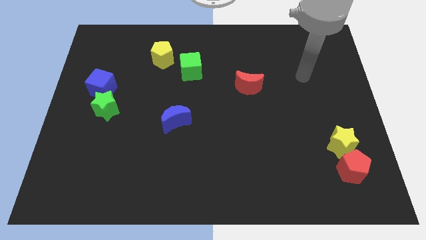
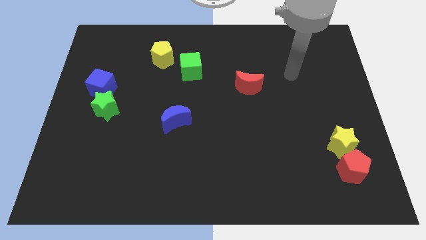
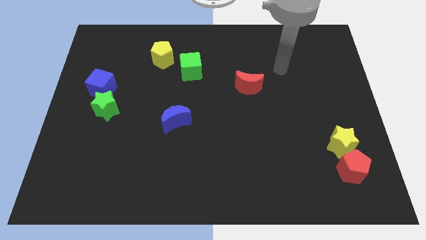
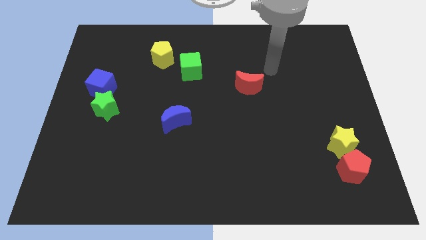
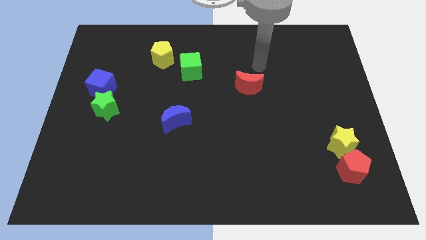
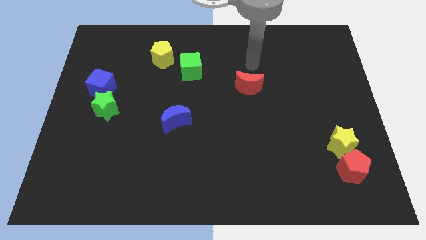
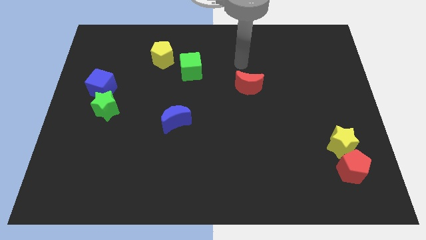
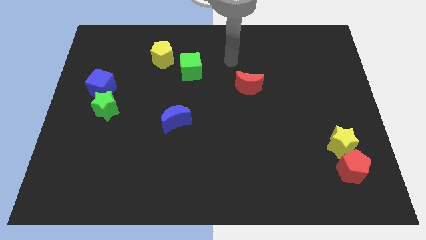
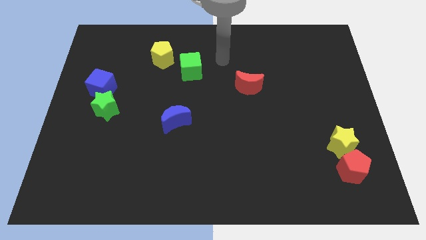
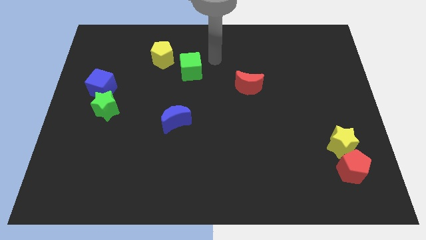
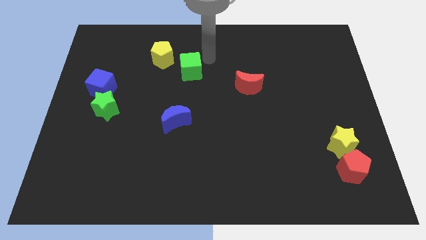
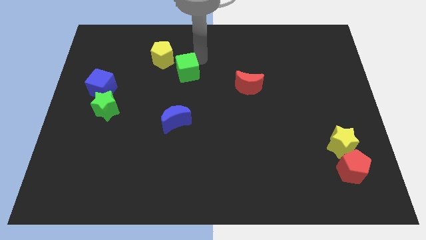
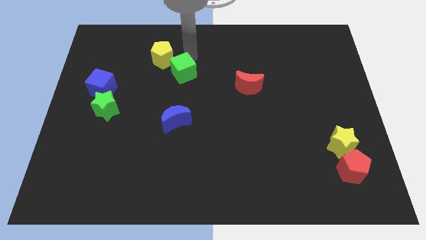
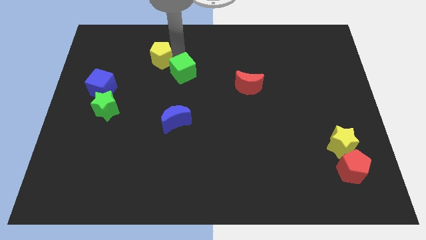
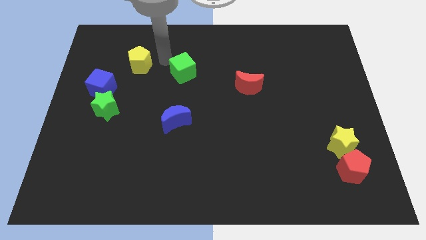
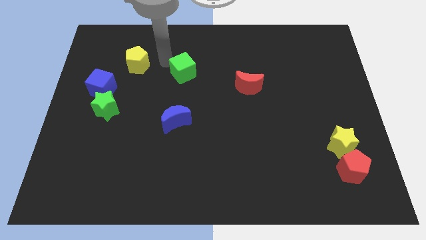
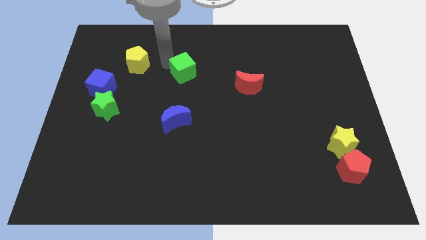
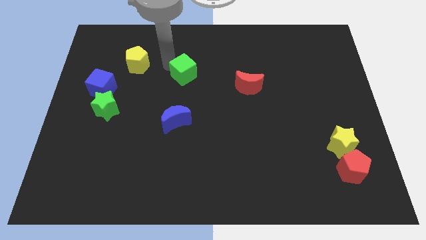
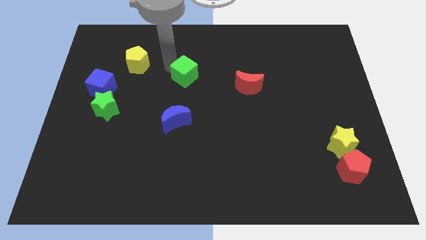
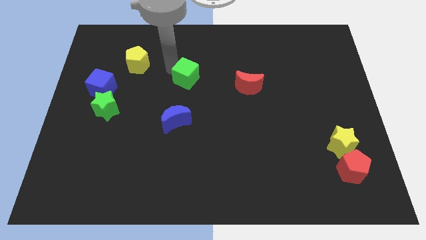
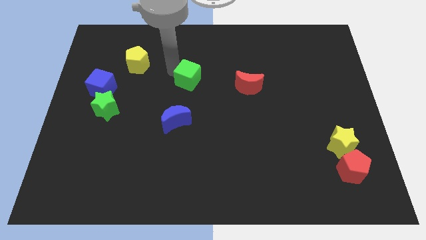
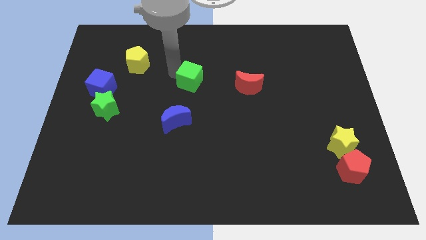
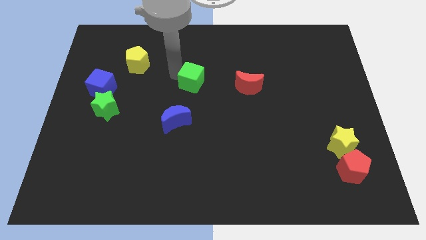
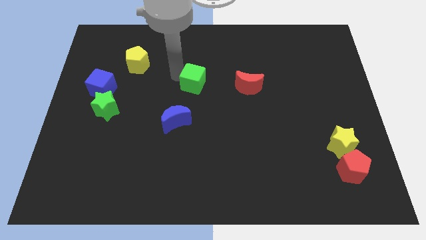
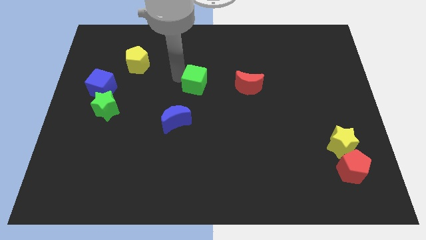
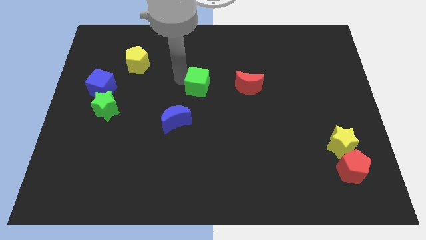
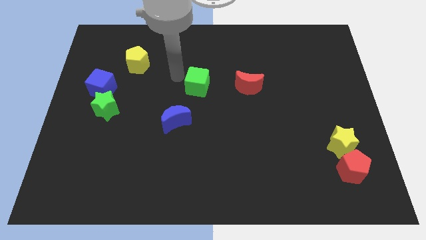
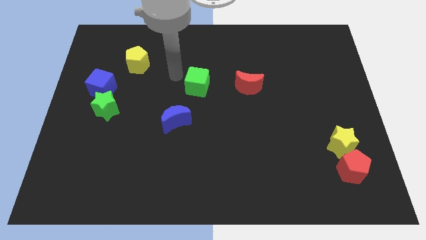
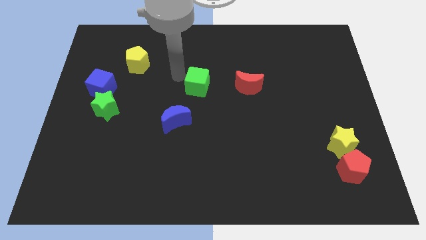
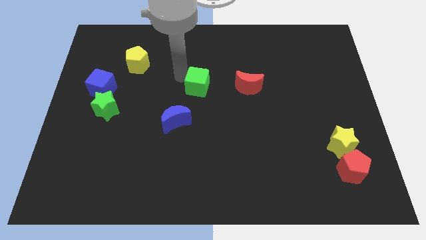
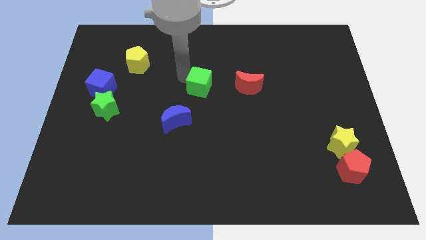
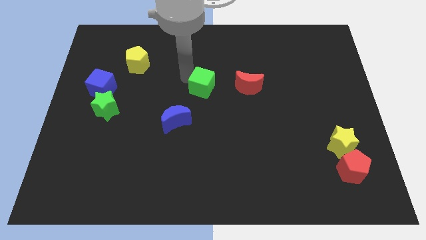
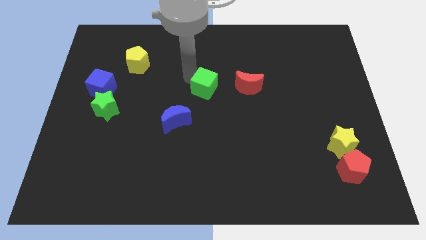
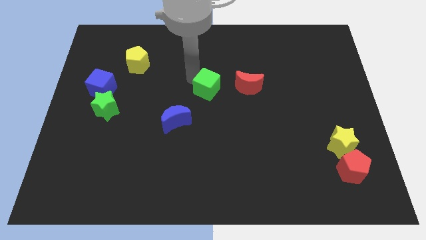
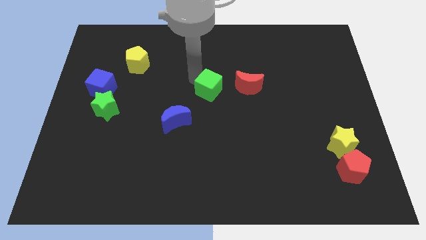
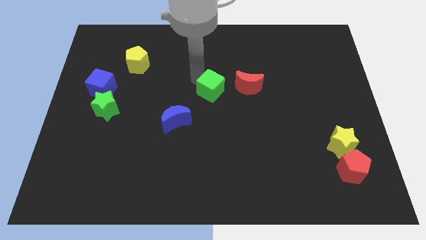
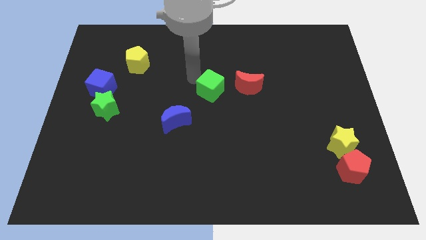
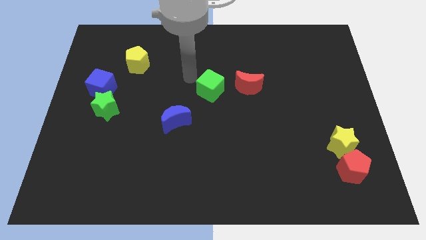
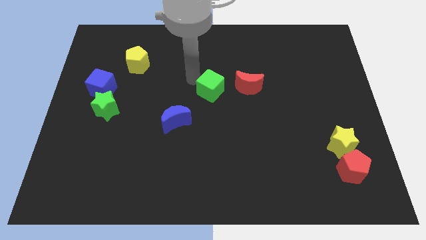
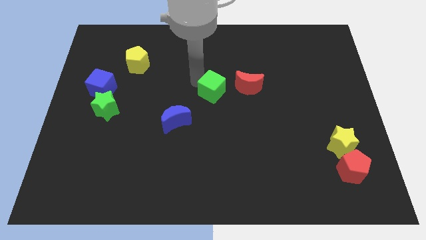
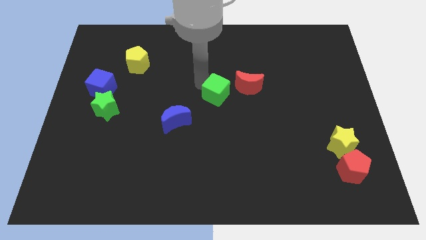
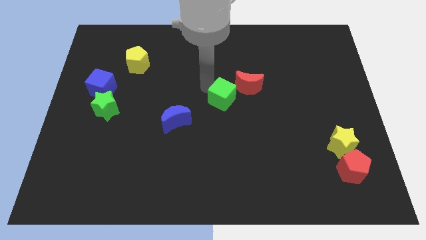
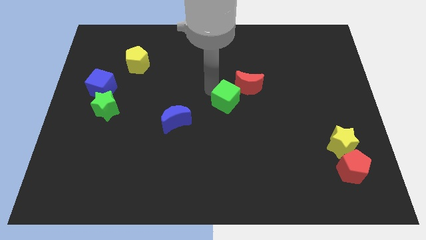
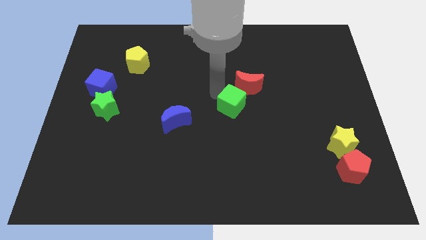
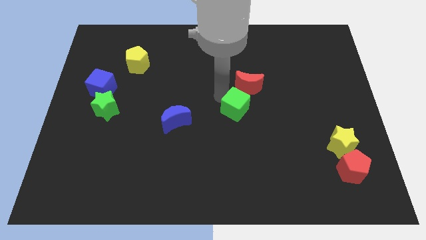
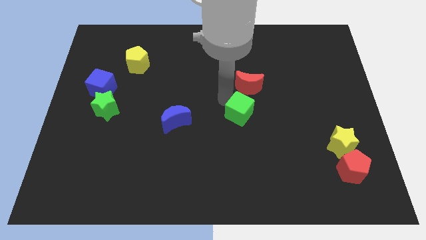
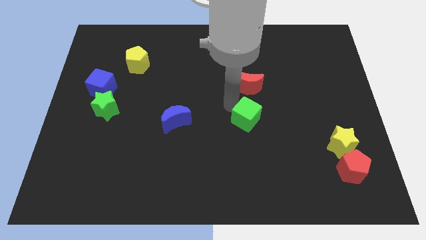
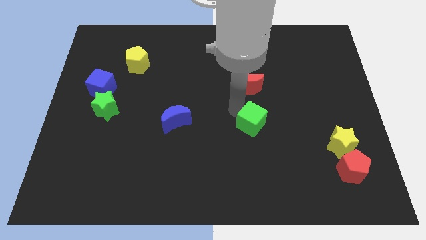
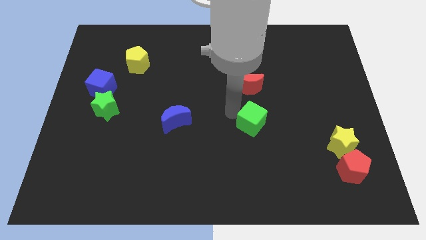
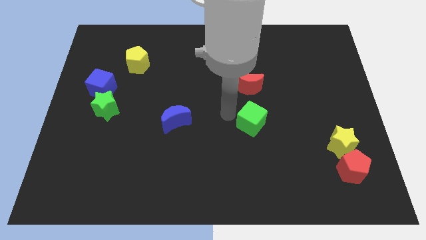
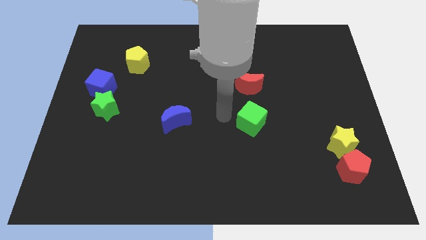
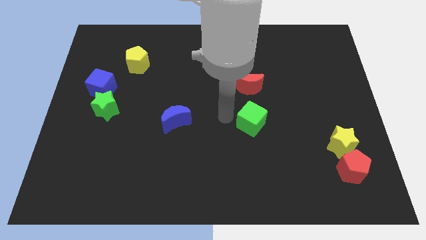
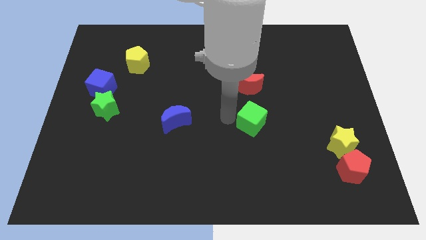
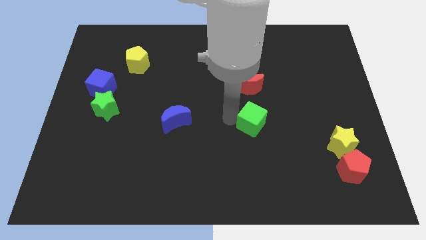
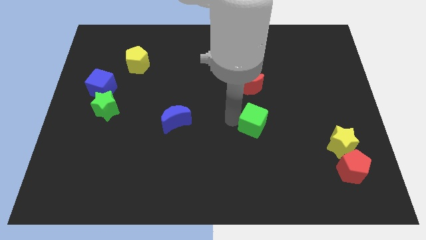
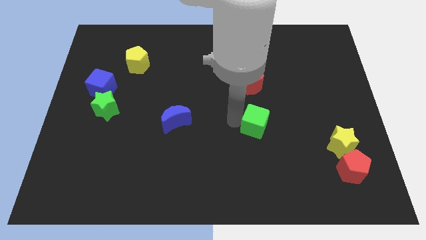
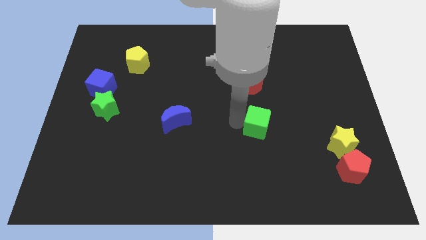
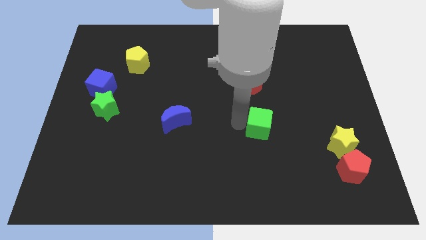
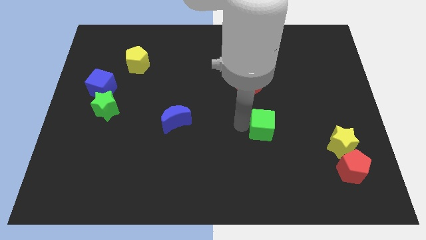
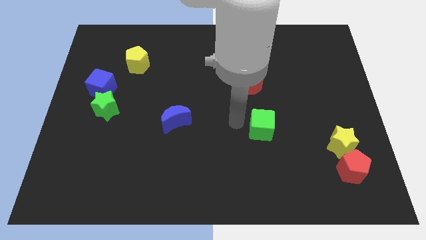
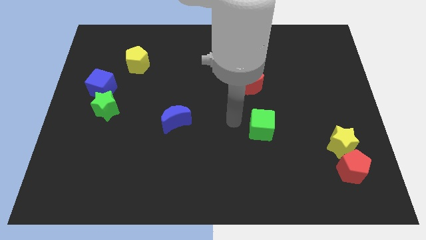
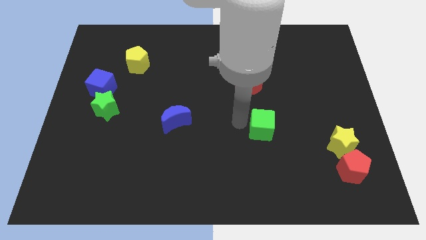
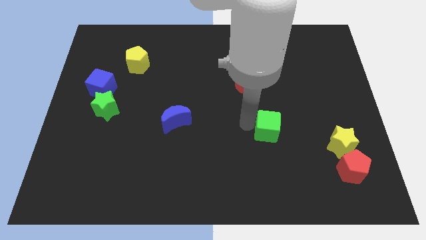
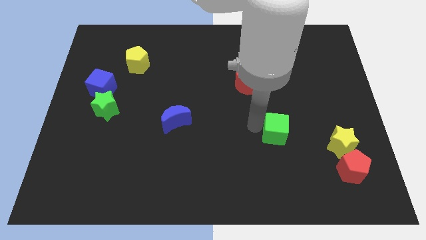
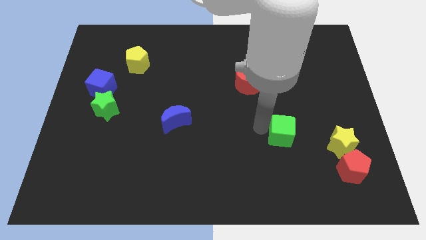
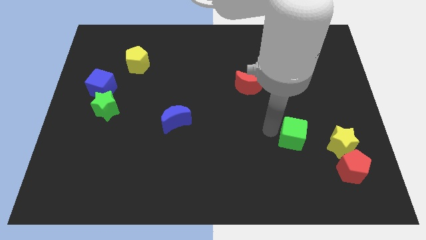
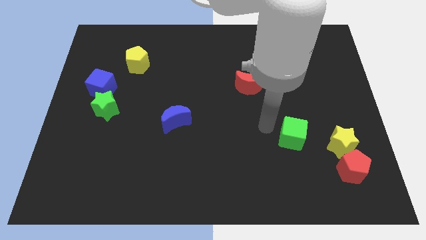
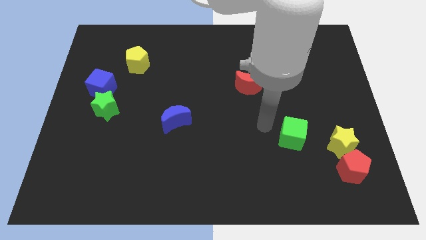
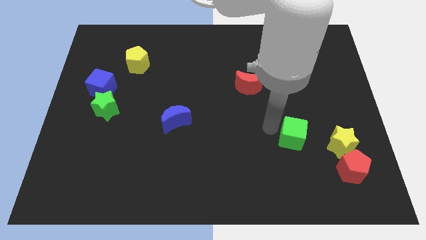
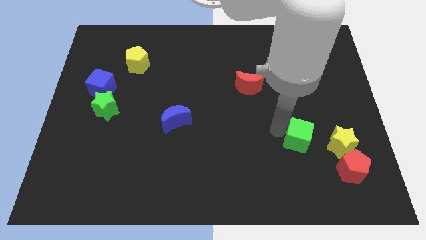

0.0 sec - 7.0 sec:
push the green cube to the top left side of the red pentagon

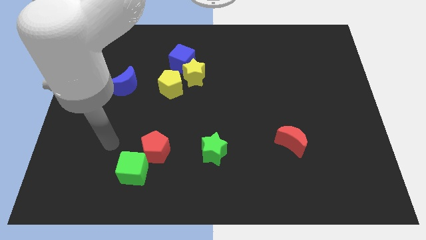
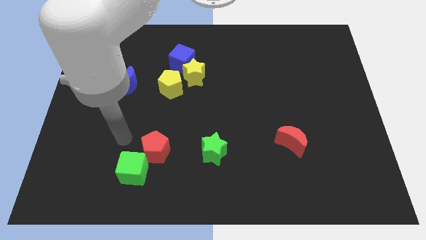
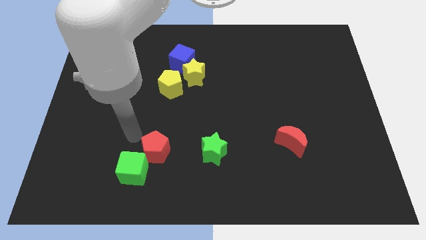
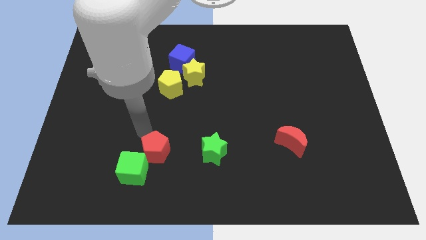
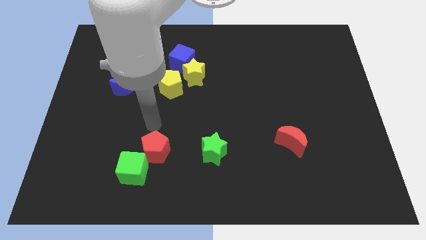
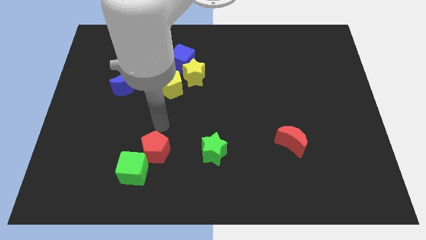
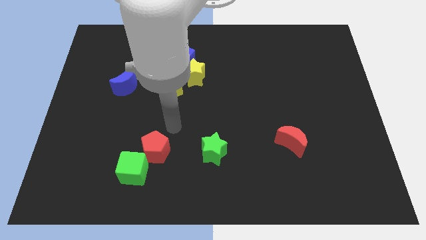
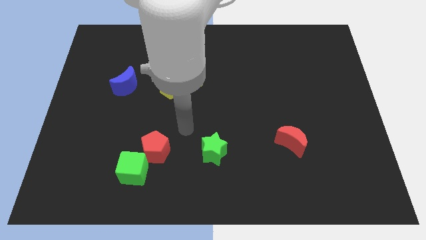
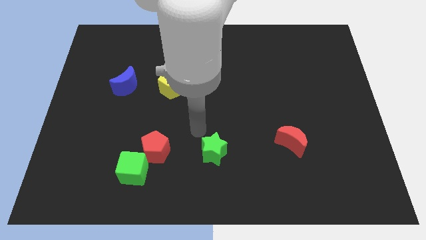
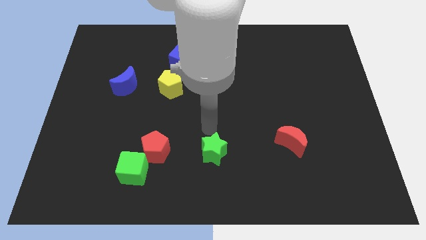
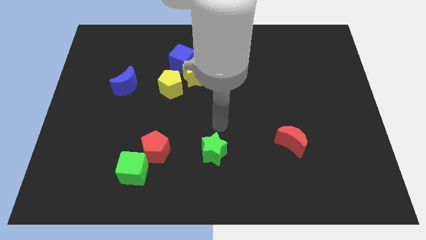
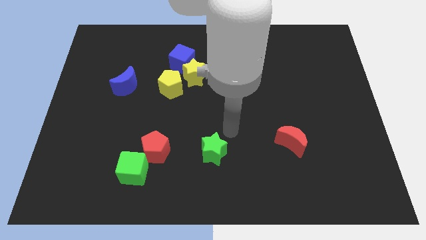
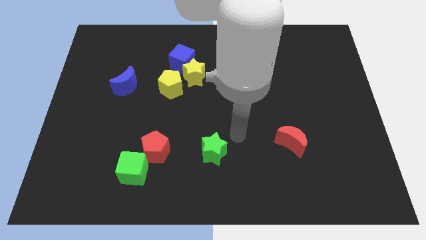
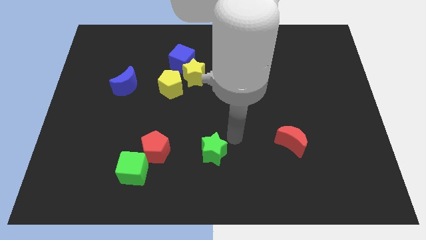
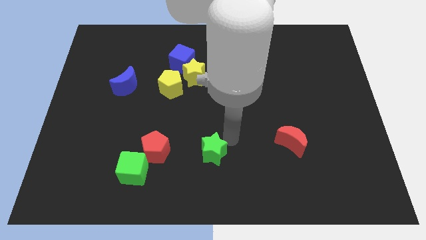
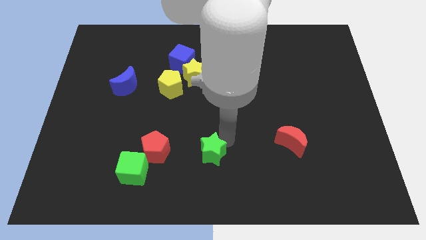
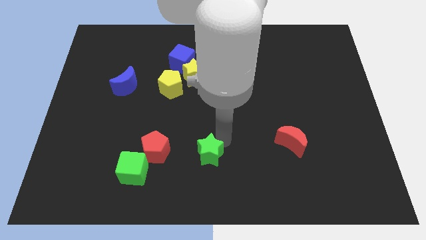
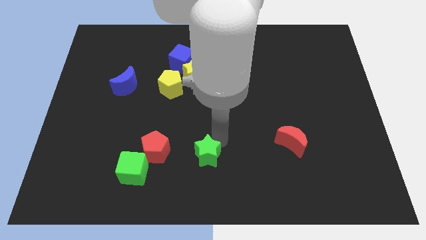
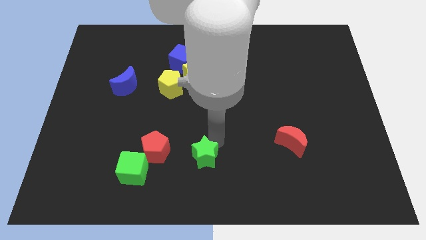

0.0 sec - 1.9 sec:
move the green star just right of the green cube
